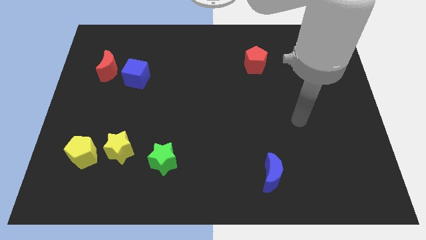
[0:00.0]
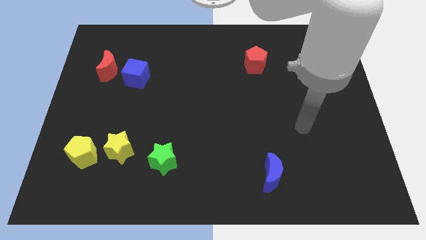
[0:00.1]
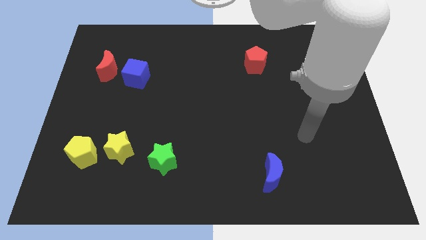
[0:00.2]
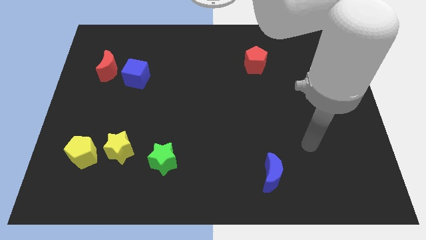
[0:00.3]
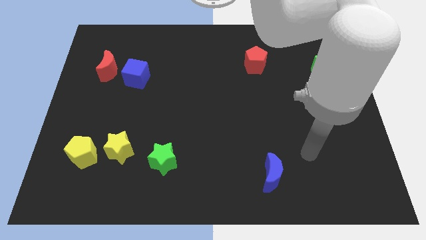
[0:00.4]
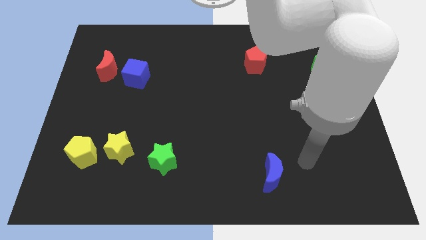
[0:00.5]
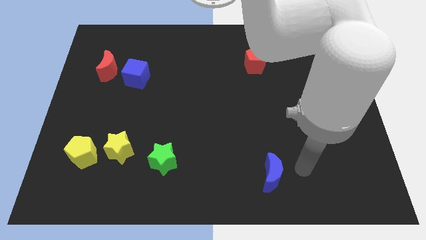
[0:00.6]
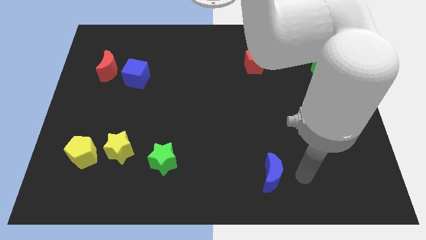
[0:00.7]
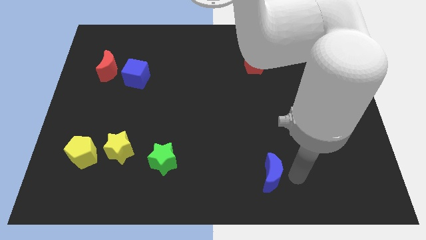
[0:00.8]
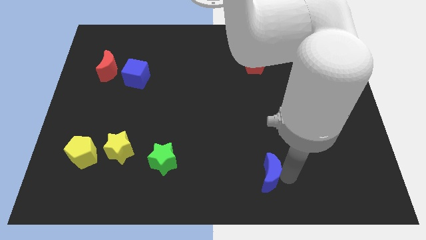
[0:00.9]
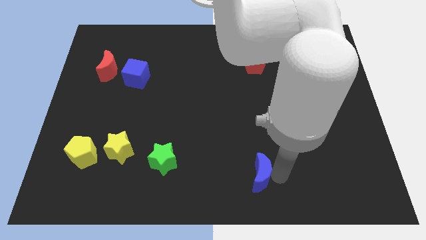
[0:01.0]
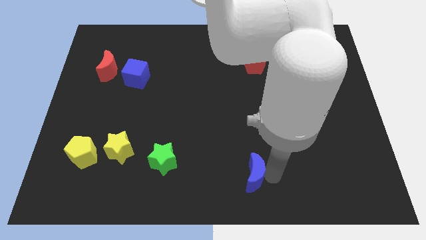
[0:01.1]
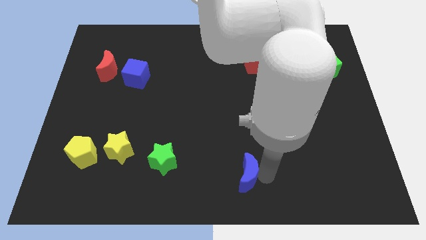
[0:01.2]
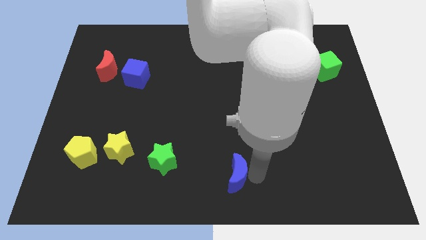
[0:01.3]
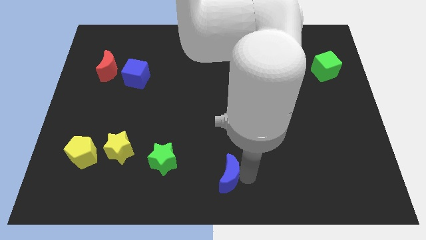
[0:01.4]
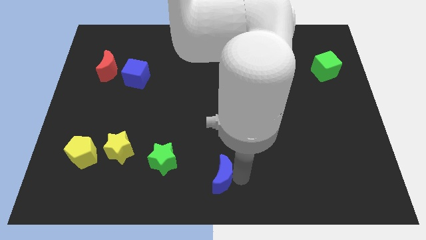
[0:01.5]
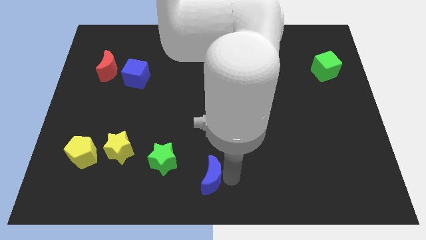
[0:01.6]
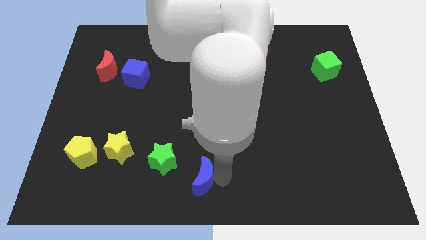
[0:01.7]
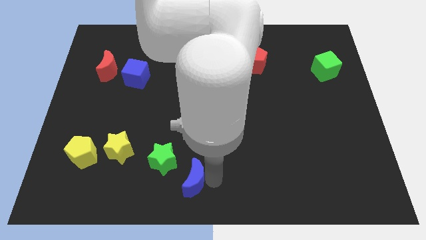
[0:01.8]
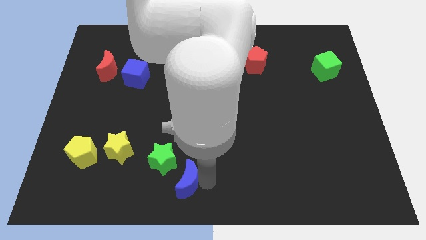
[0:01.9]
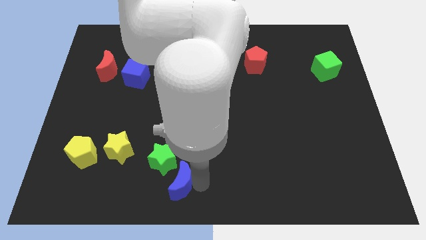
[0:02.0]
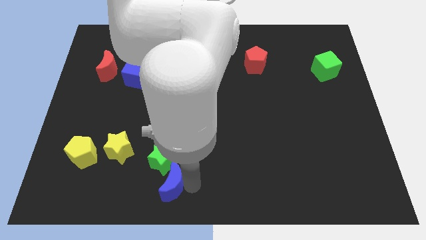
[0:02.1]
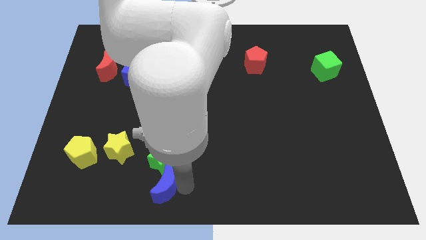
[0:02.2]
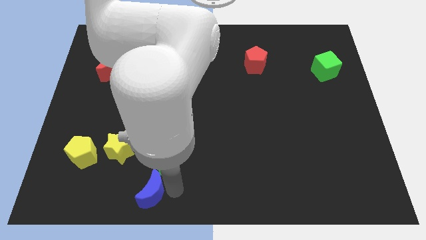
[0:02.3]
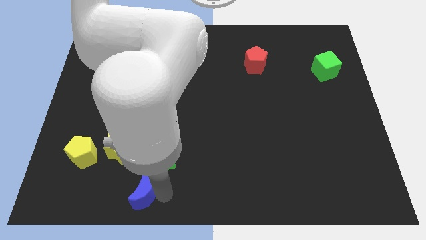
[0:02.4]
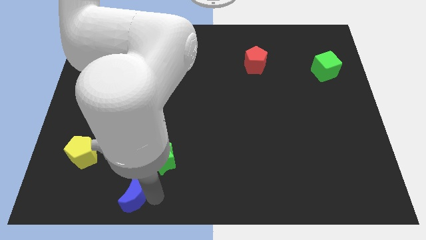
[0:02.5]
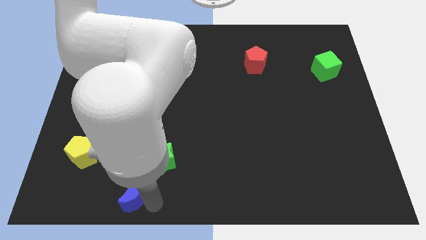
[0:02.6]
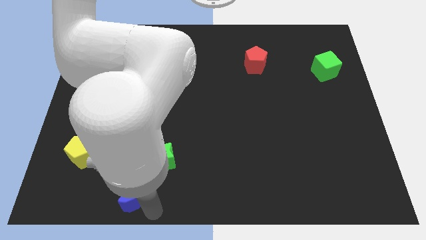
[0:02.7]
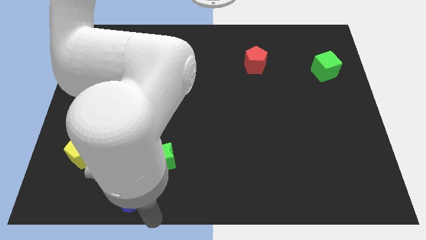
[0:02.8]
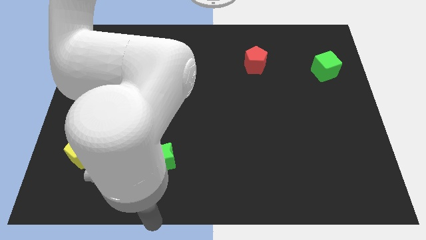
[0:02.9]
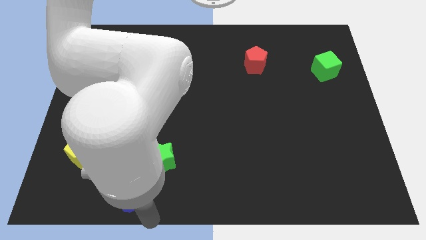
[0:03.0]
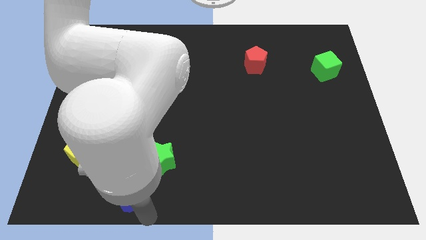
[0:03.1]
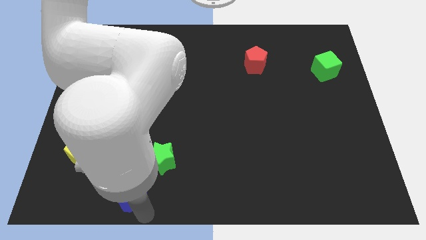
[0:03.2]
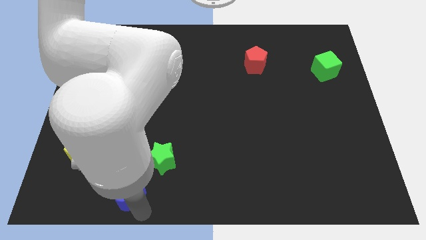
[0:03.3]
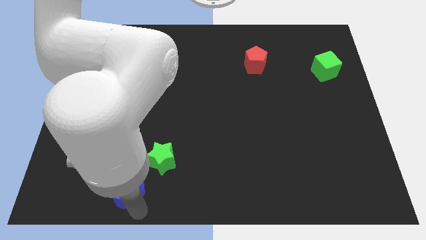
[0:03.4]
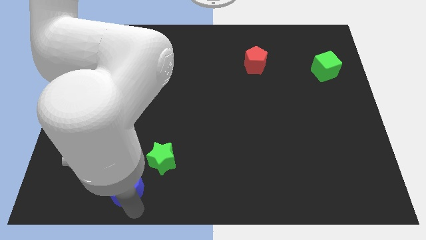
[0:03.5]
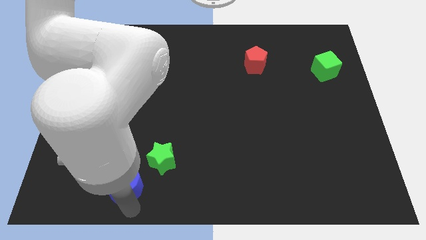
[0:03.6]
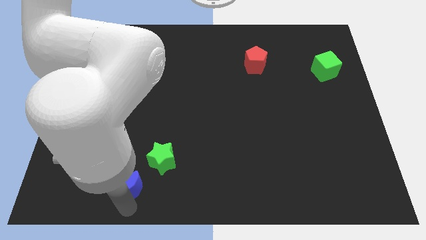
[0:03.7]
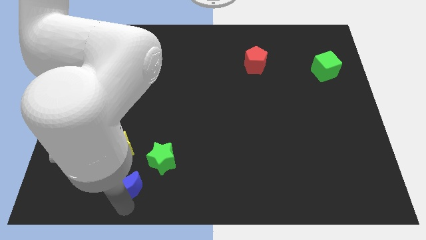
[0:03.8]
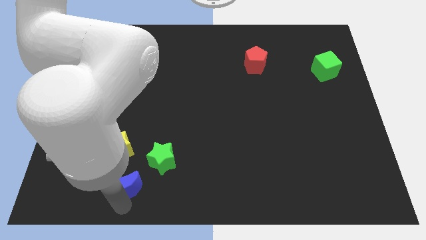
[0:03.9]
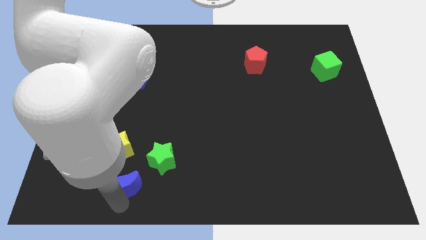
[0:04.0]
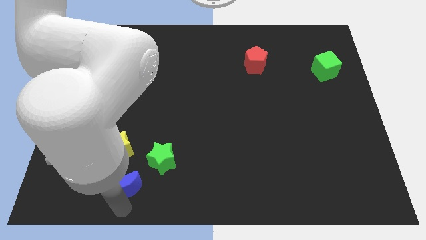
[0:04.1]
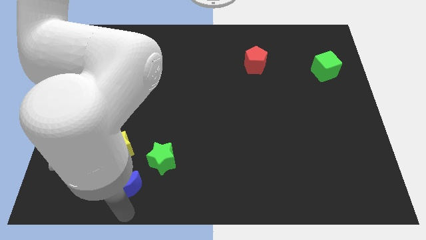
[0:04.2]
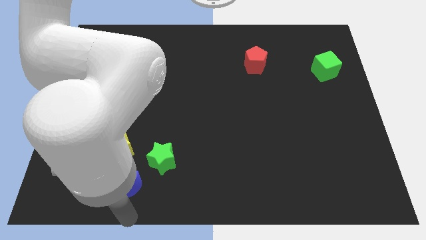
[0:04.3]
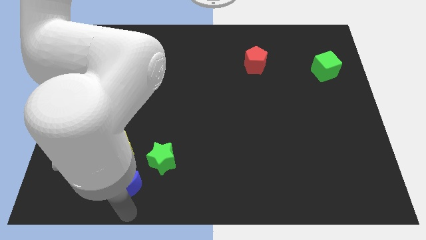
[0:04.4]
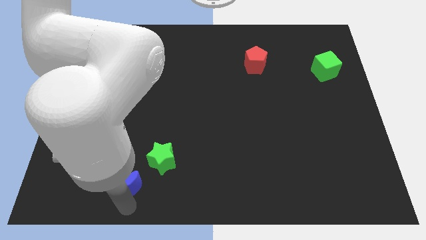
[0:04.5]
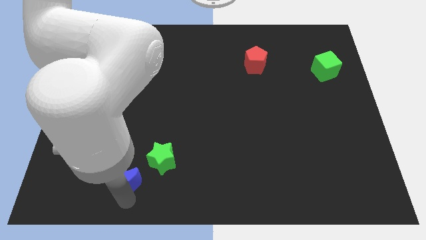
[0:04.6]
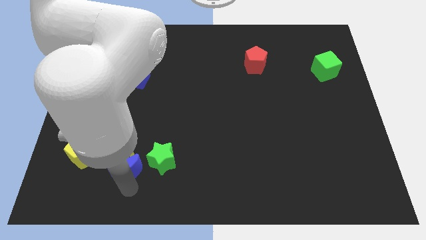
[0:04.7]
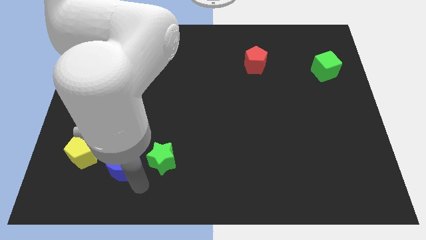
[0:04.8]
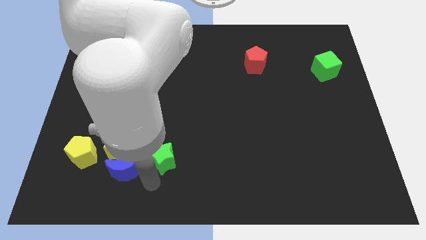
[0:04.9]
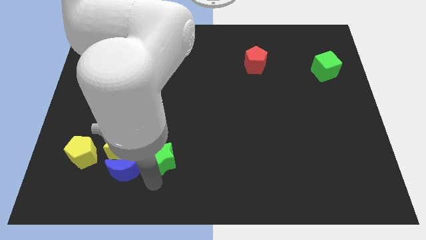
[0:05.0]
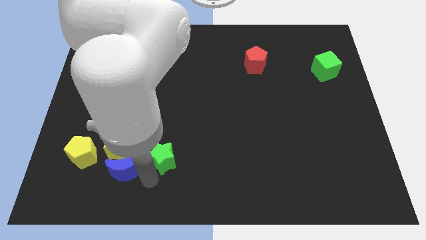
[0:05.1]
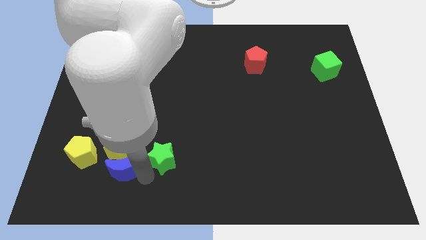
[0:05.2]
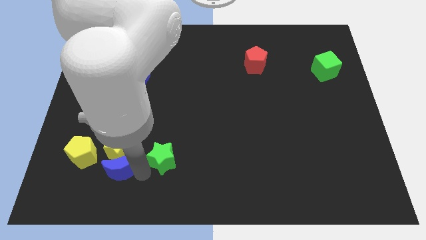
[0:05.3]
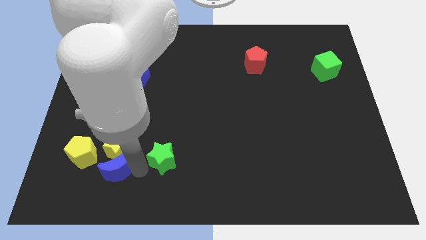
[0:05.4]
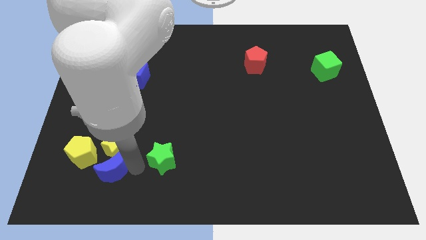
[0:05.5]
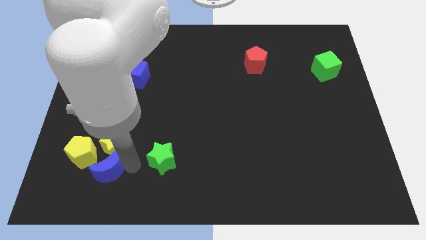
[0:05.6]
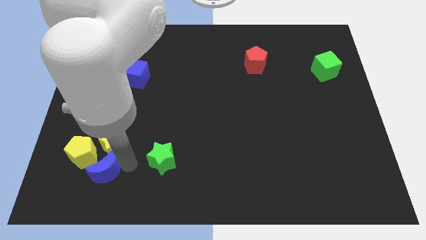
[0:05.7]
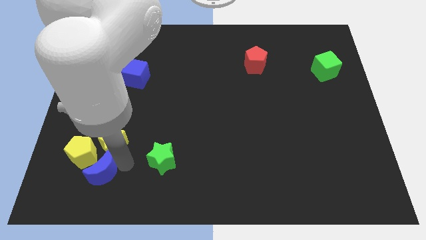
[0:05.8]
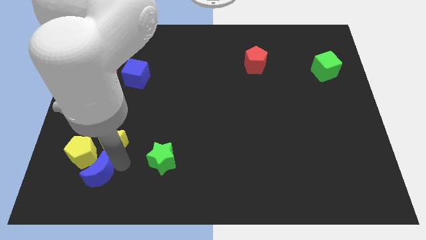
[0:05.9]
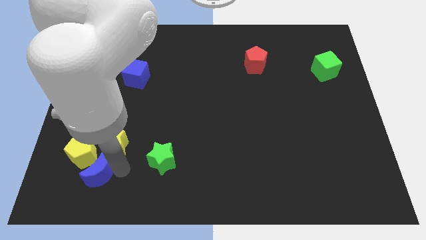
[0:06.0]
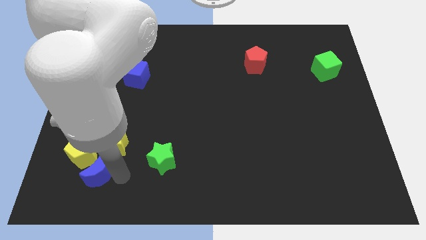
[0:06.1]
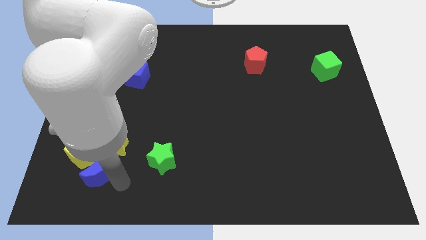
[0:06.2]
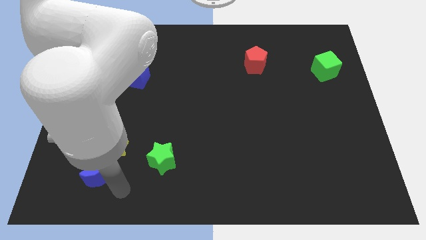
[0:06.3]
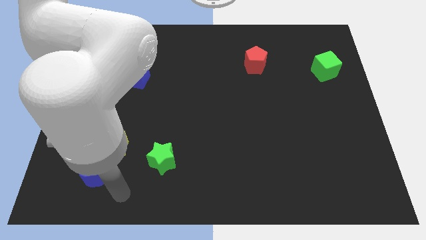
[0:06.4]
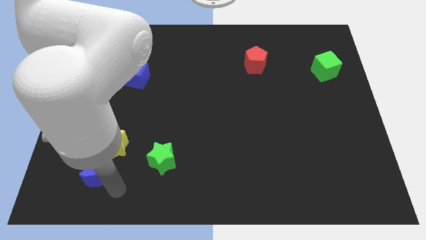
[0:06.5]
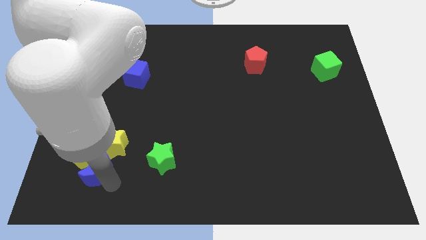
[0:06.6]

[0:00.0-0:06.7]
push the blue moon close to the yellow pentagon

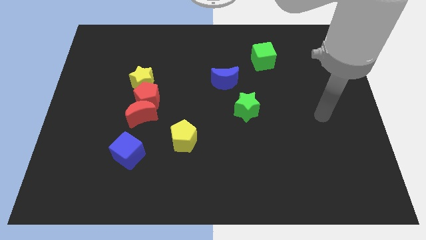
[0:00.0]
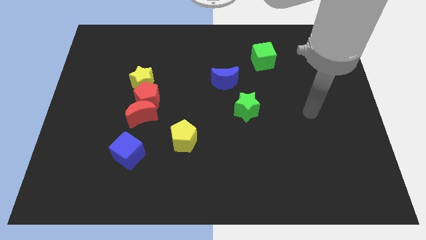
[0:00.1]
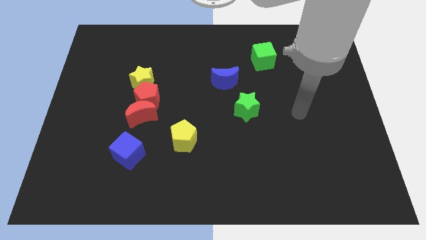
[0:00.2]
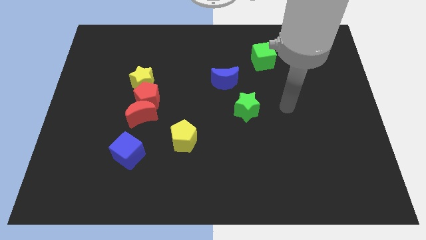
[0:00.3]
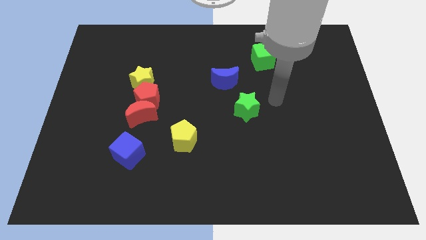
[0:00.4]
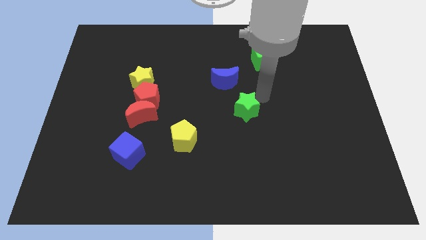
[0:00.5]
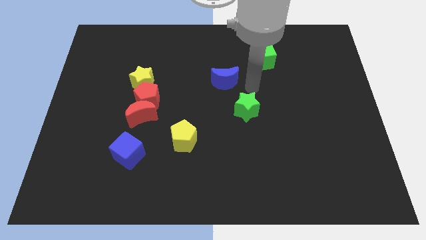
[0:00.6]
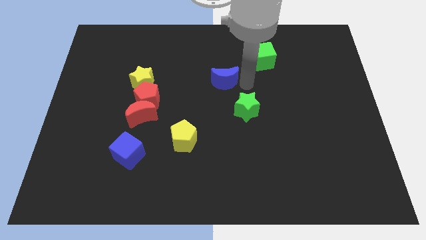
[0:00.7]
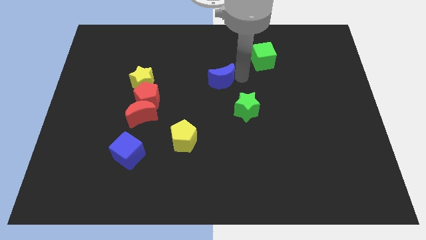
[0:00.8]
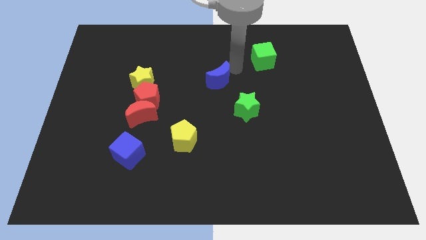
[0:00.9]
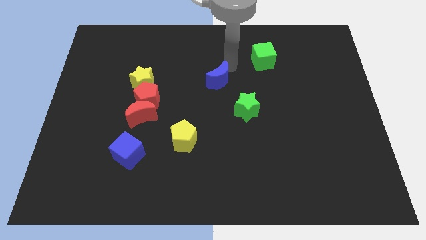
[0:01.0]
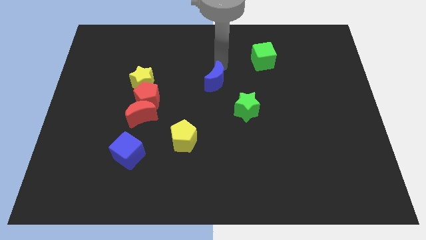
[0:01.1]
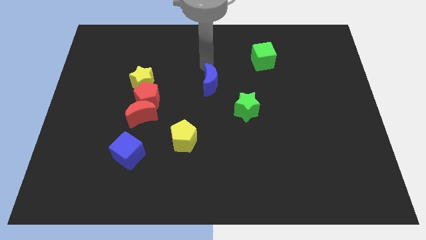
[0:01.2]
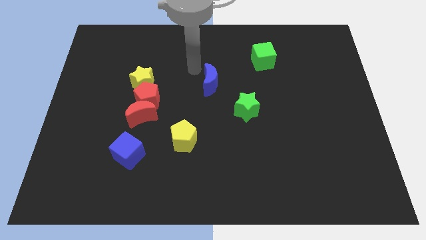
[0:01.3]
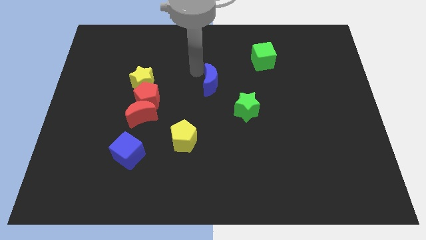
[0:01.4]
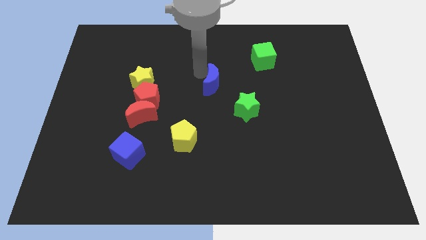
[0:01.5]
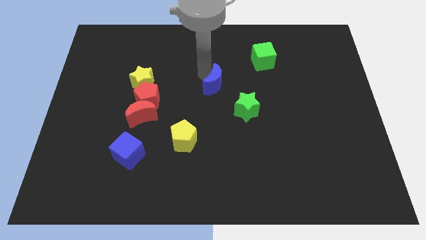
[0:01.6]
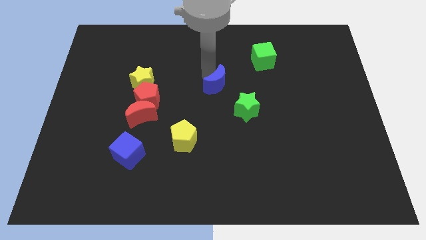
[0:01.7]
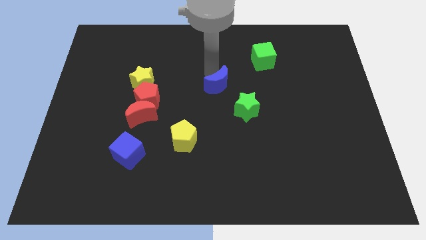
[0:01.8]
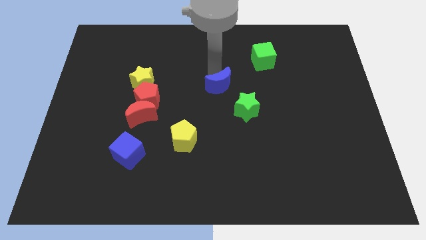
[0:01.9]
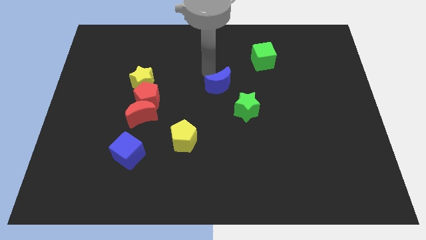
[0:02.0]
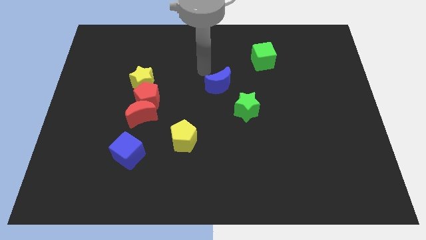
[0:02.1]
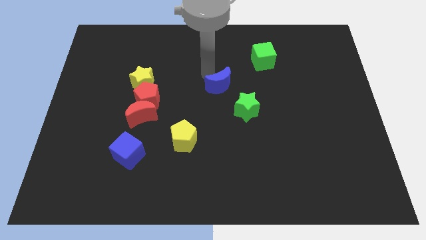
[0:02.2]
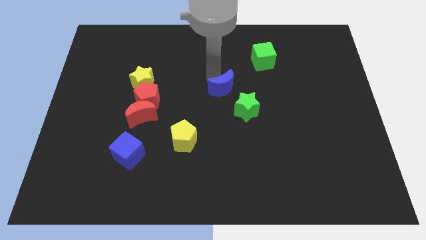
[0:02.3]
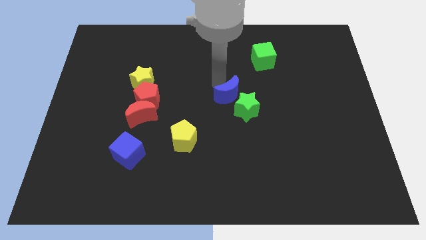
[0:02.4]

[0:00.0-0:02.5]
slide the blue moon close to the green star
